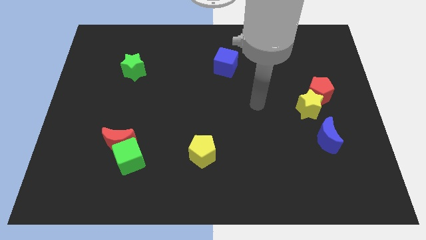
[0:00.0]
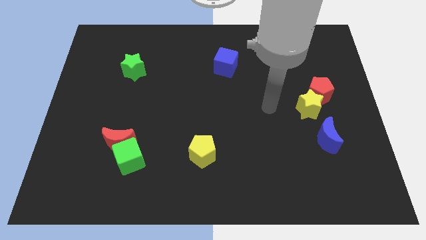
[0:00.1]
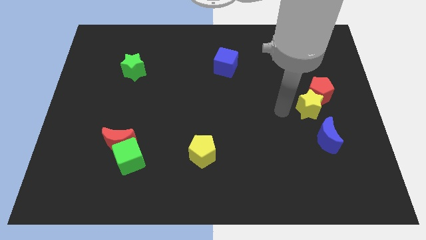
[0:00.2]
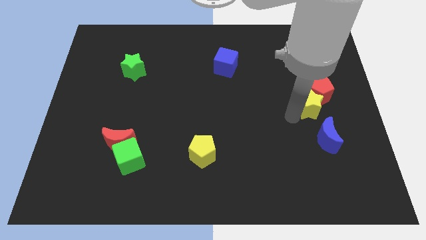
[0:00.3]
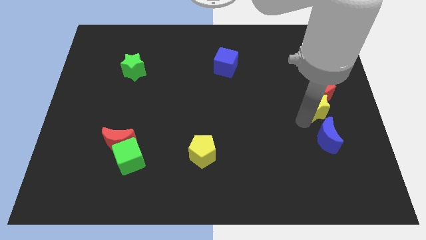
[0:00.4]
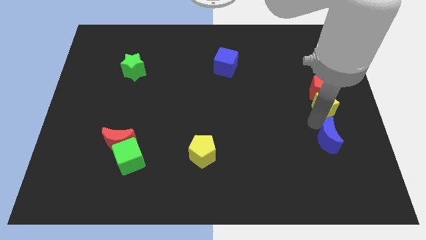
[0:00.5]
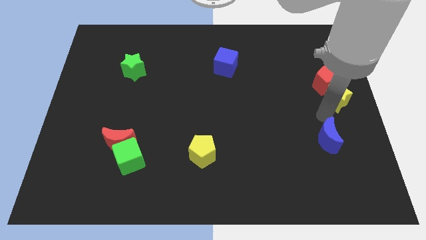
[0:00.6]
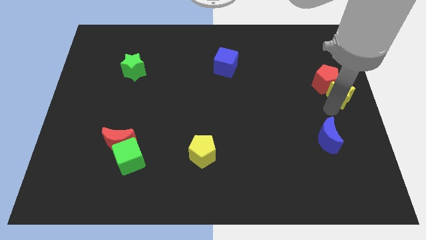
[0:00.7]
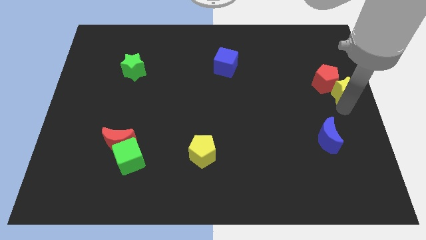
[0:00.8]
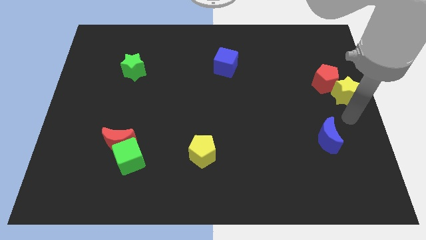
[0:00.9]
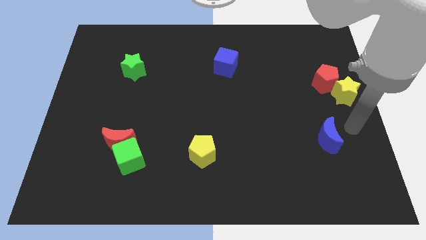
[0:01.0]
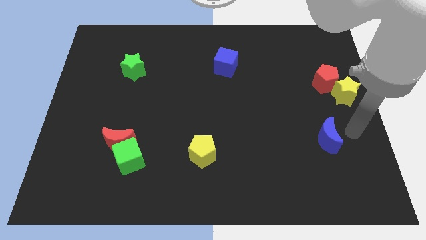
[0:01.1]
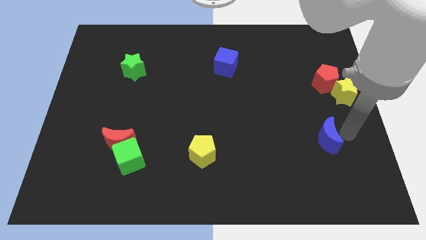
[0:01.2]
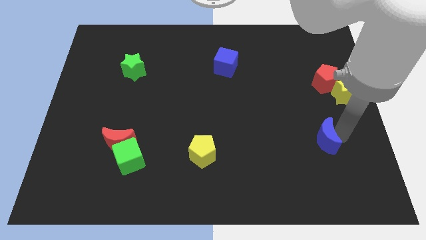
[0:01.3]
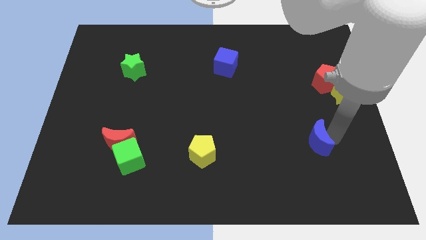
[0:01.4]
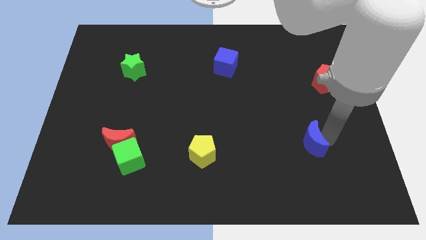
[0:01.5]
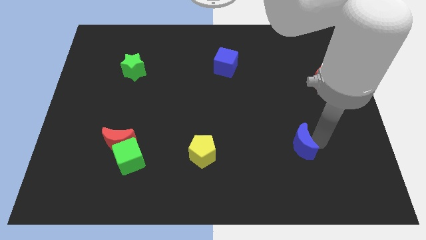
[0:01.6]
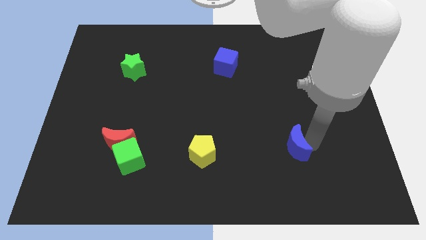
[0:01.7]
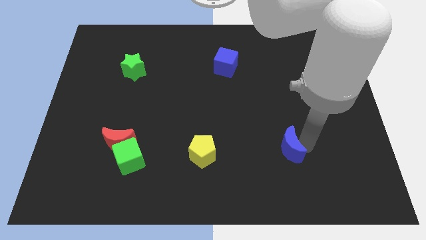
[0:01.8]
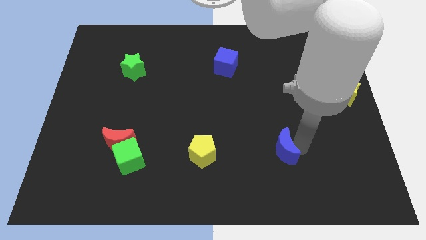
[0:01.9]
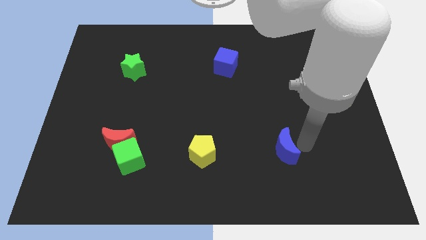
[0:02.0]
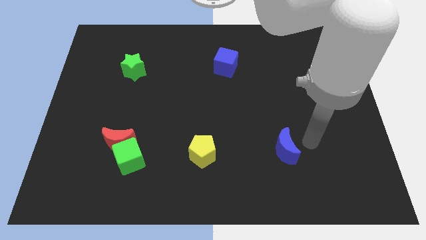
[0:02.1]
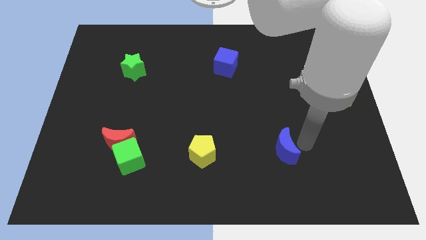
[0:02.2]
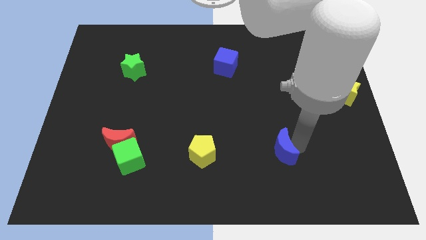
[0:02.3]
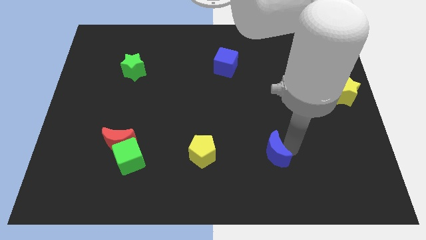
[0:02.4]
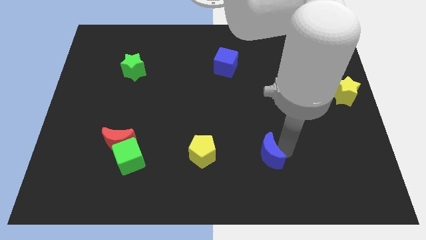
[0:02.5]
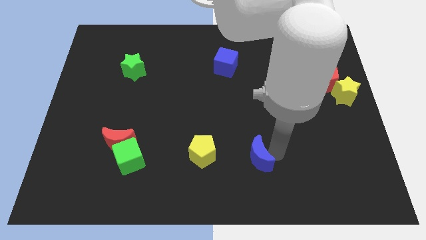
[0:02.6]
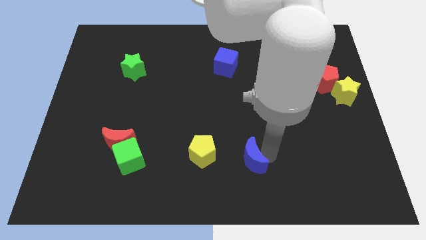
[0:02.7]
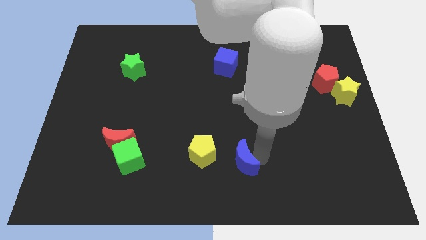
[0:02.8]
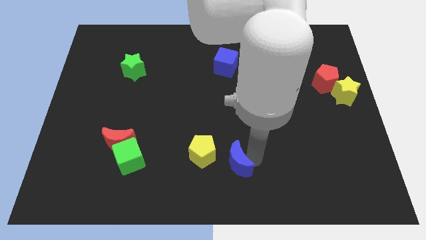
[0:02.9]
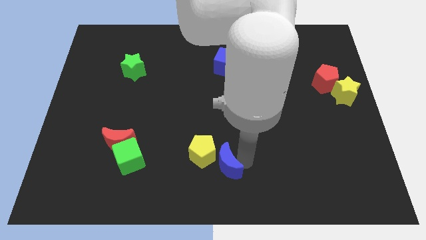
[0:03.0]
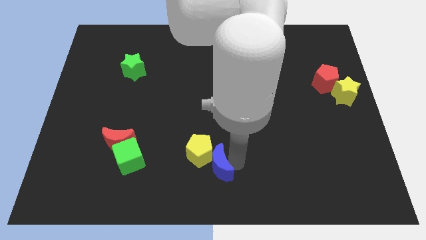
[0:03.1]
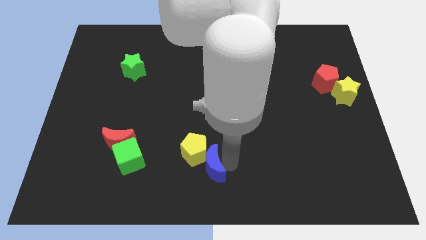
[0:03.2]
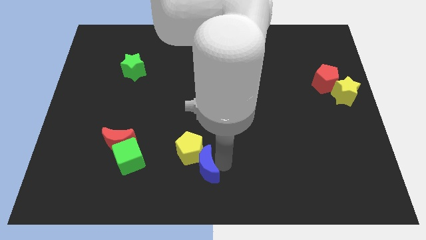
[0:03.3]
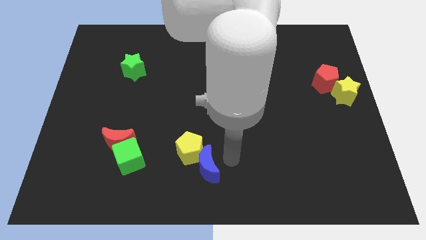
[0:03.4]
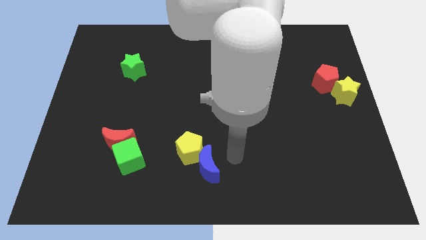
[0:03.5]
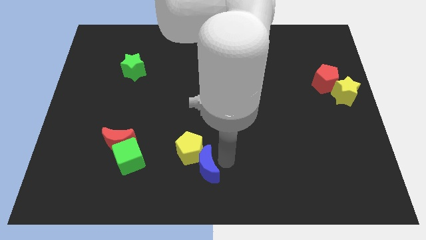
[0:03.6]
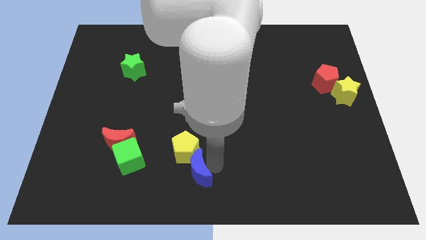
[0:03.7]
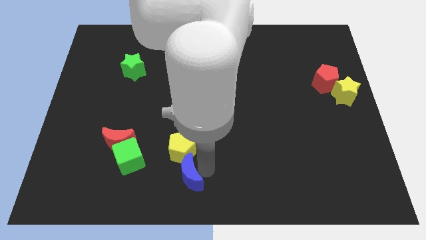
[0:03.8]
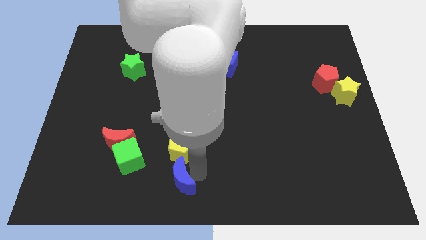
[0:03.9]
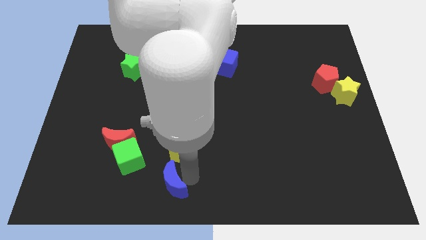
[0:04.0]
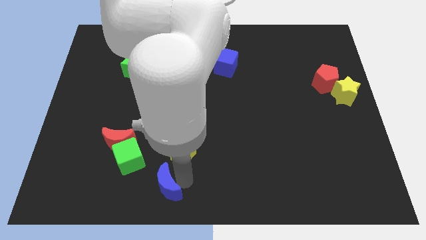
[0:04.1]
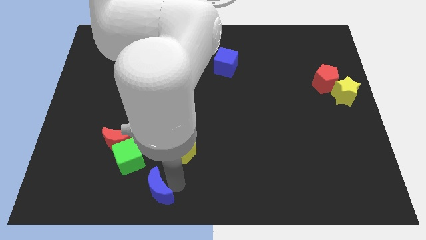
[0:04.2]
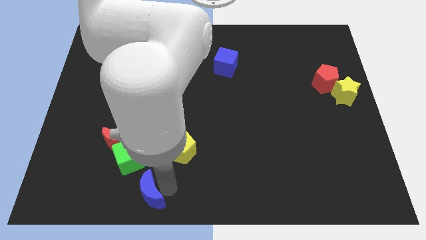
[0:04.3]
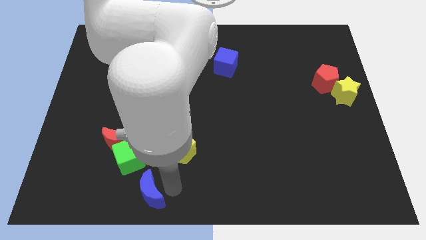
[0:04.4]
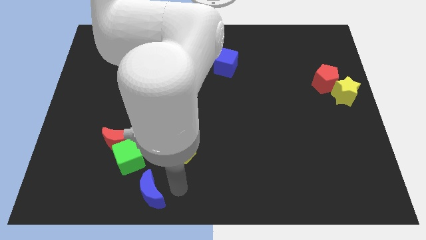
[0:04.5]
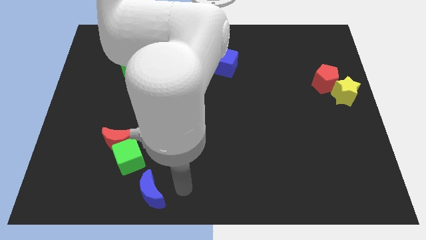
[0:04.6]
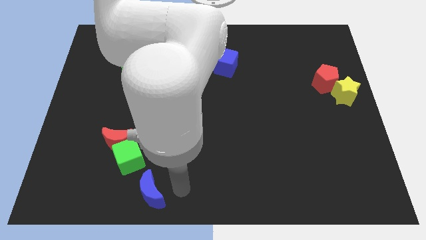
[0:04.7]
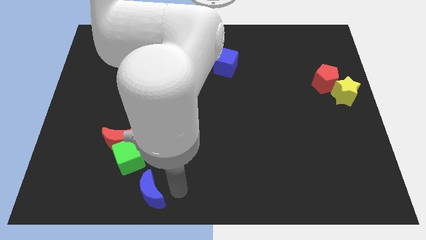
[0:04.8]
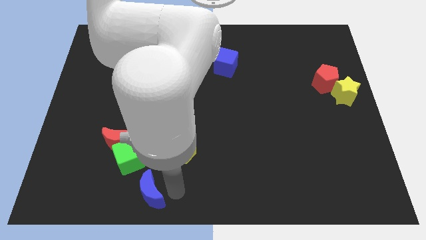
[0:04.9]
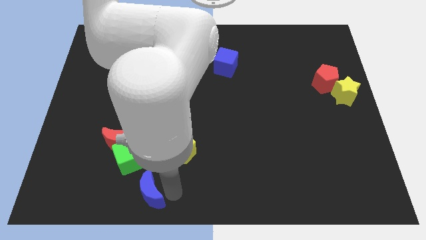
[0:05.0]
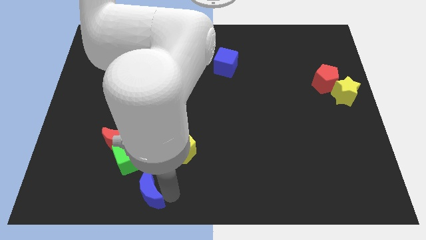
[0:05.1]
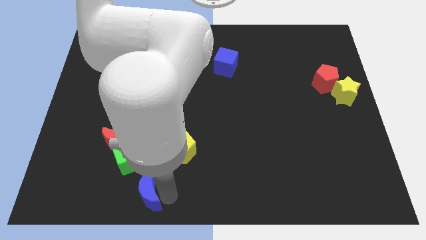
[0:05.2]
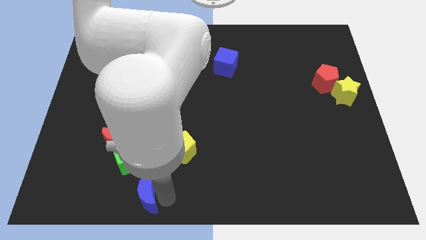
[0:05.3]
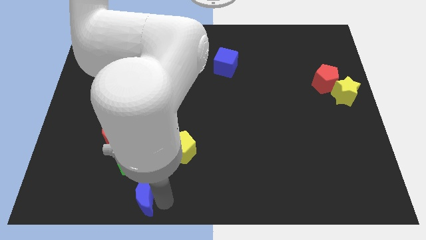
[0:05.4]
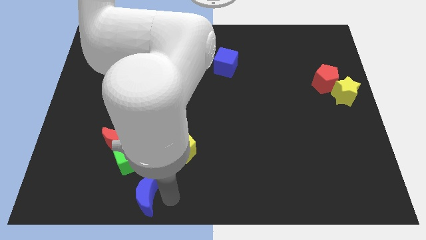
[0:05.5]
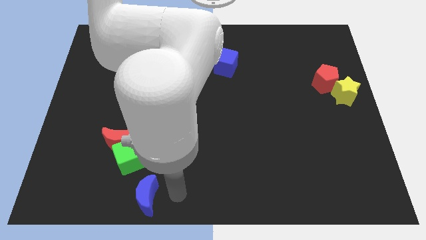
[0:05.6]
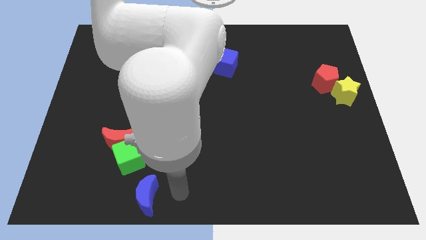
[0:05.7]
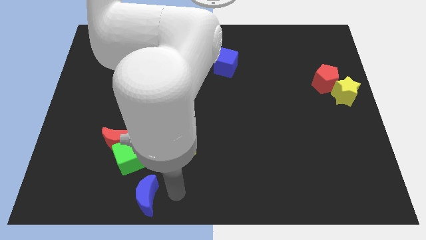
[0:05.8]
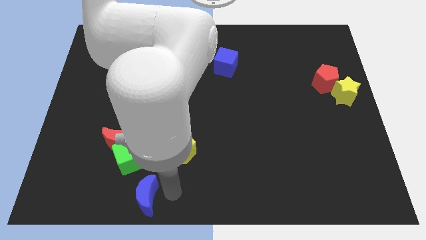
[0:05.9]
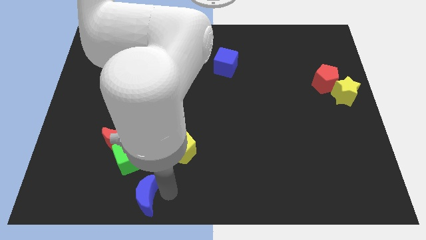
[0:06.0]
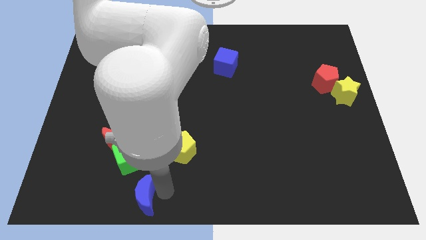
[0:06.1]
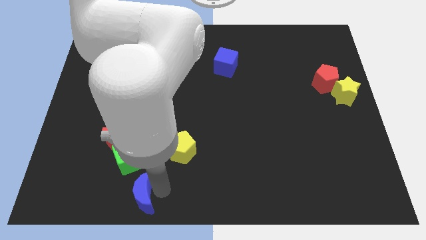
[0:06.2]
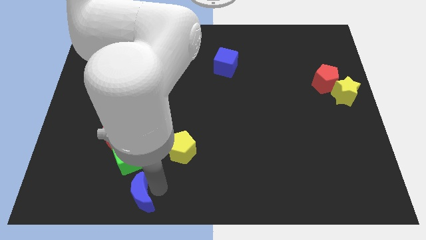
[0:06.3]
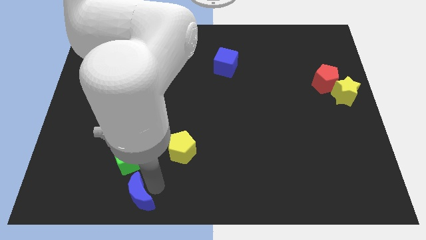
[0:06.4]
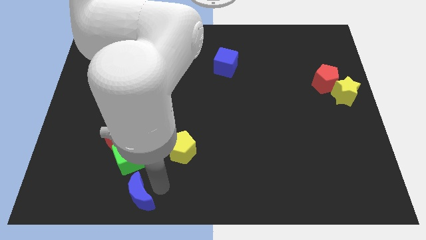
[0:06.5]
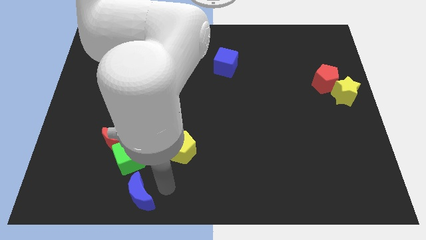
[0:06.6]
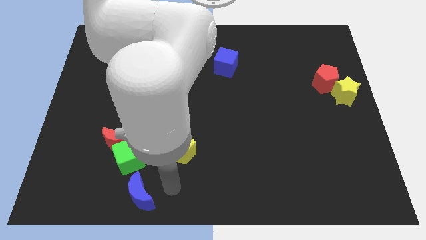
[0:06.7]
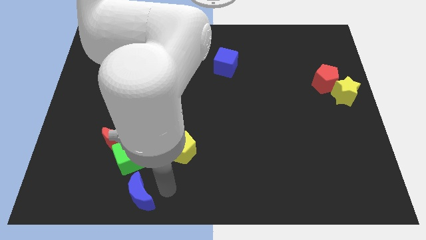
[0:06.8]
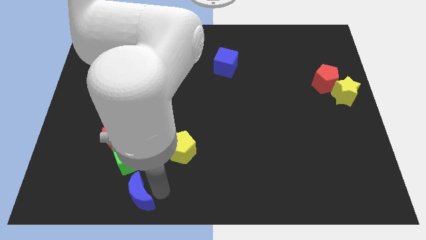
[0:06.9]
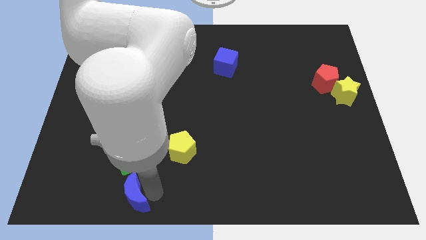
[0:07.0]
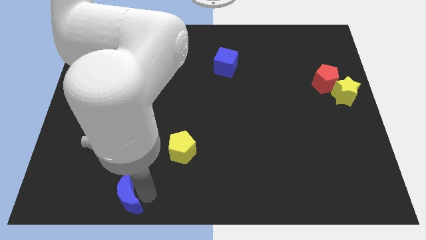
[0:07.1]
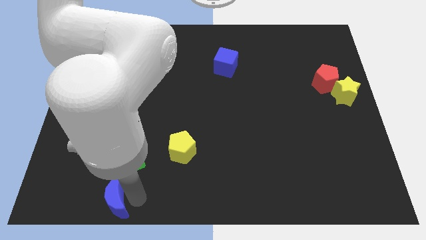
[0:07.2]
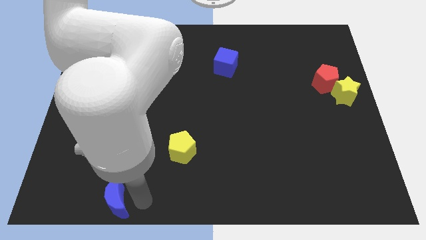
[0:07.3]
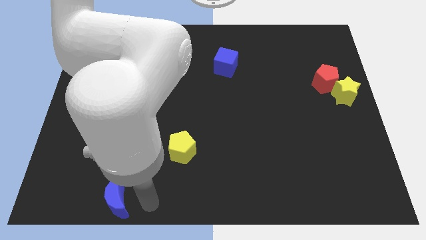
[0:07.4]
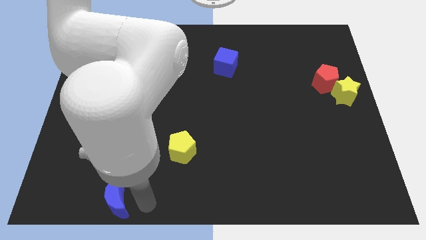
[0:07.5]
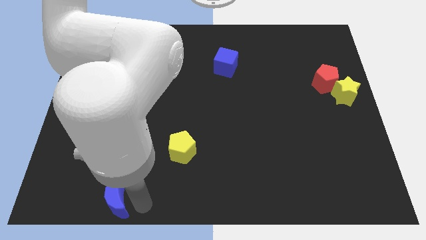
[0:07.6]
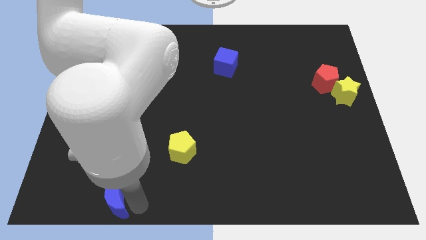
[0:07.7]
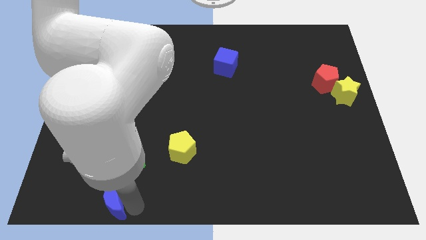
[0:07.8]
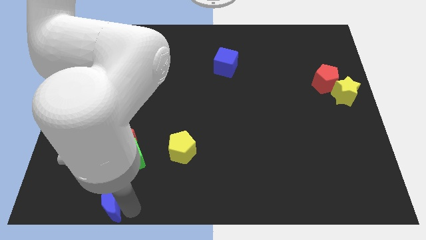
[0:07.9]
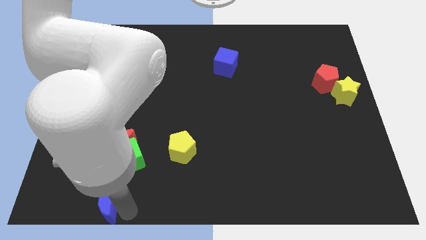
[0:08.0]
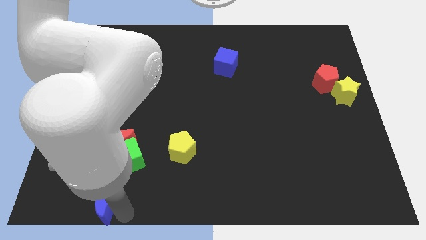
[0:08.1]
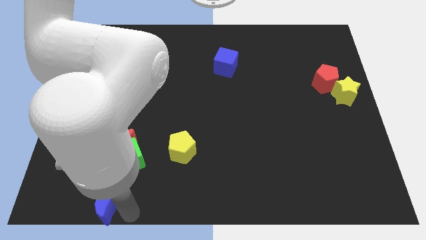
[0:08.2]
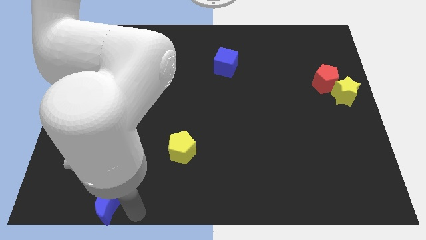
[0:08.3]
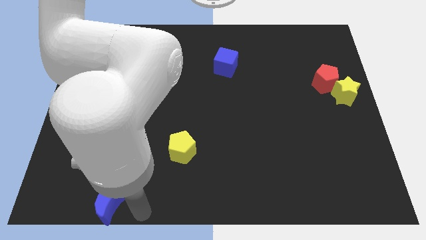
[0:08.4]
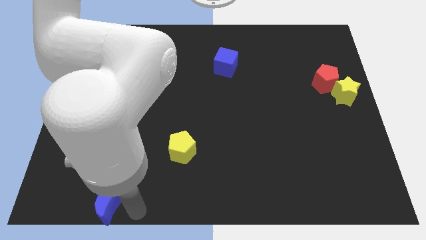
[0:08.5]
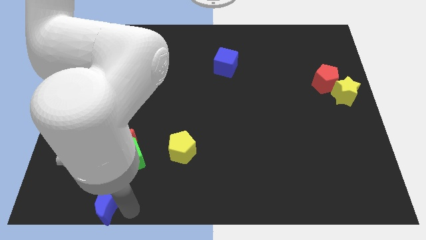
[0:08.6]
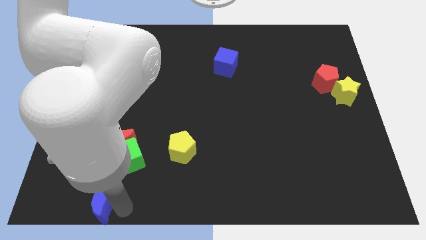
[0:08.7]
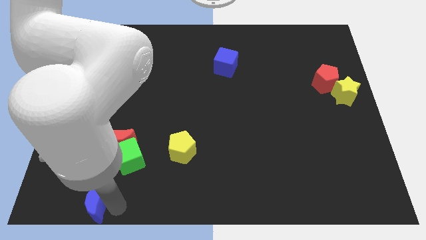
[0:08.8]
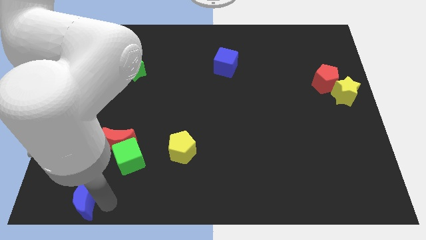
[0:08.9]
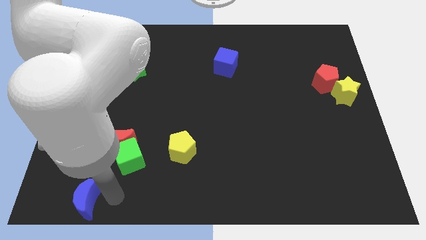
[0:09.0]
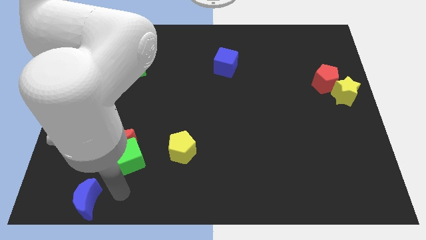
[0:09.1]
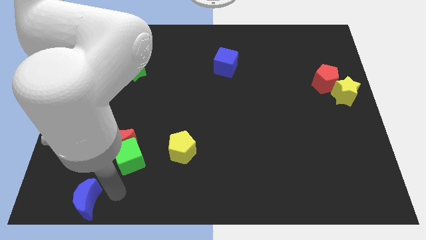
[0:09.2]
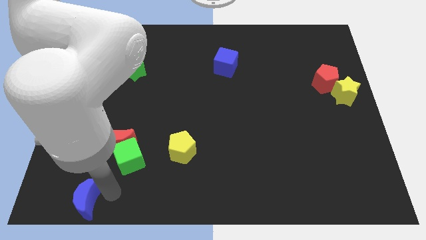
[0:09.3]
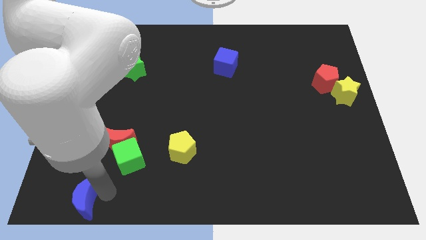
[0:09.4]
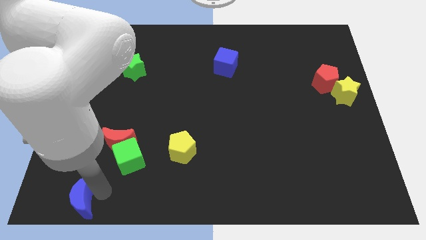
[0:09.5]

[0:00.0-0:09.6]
put the blue moon to the bottom left
